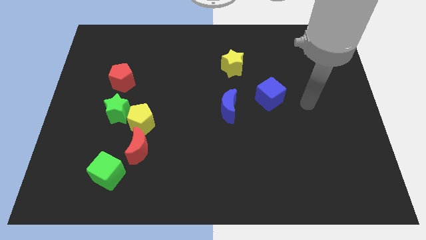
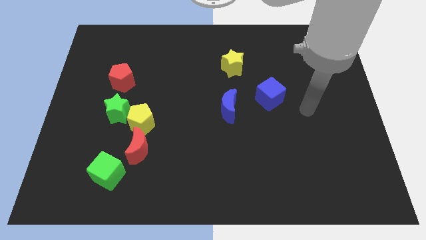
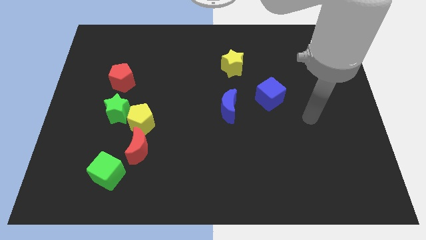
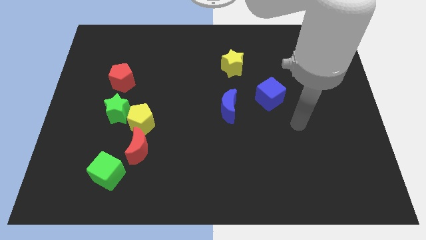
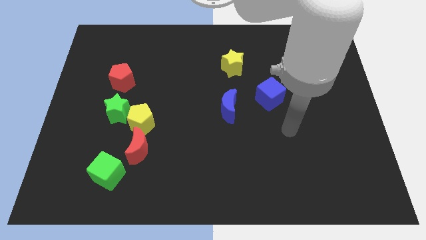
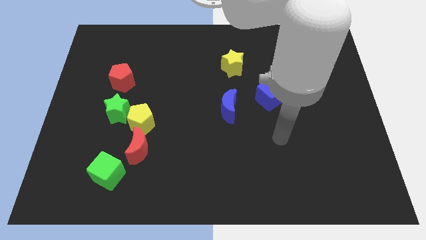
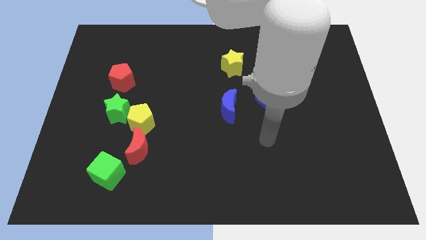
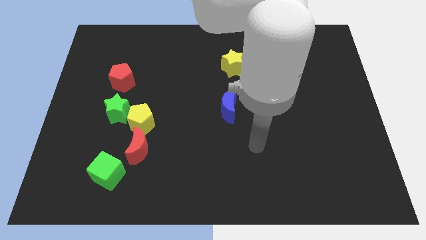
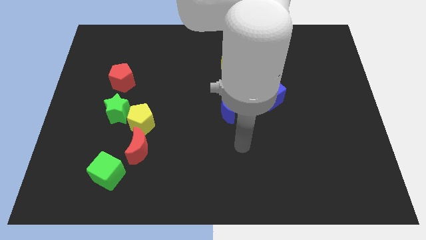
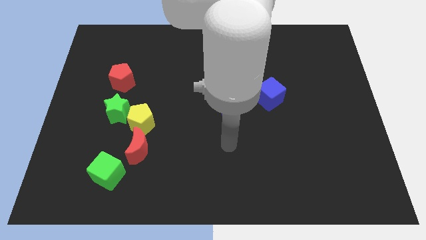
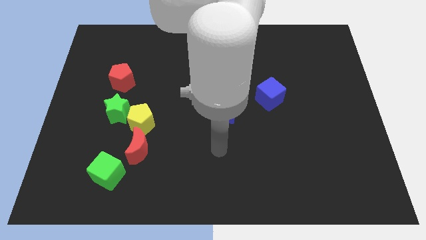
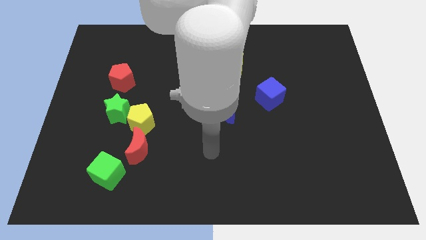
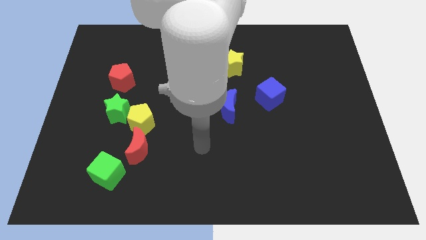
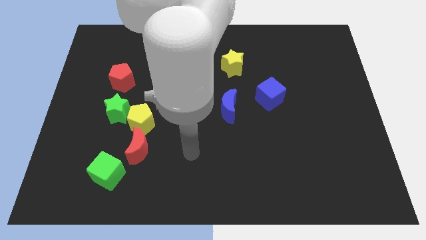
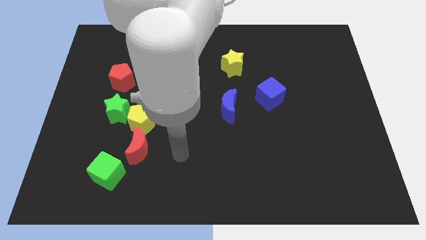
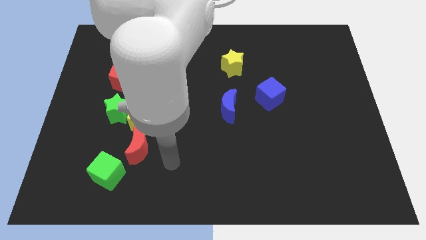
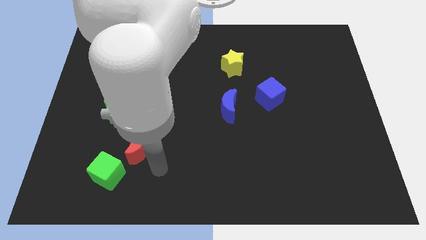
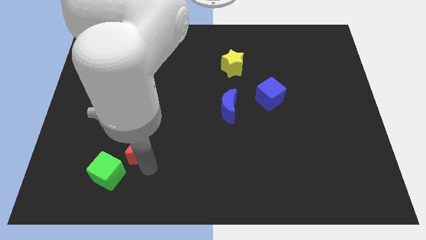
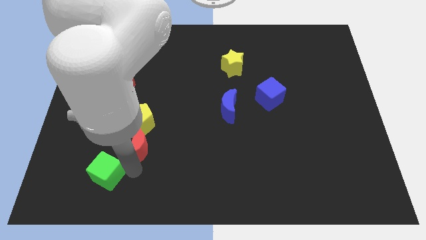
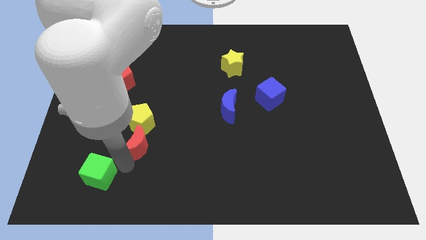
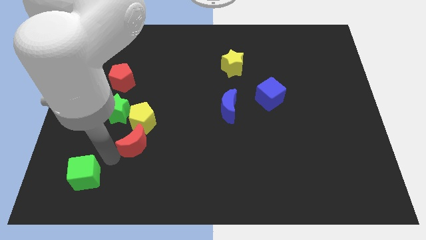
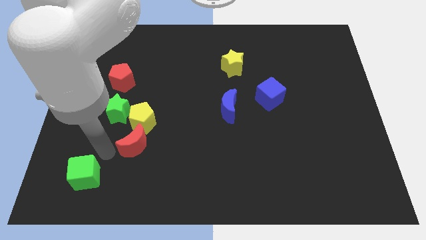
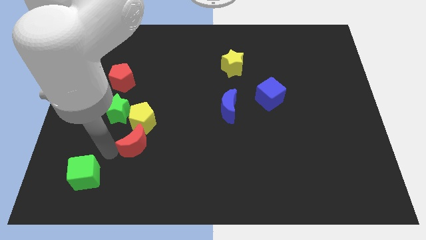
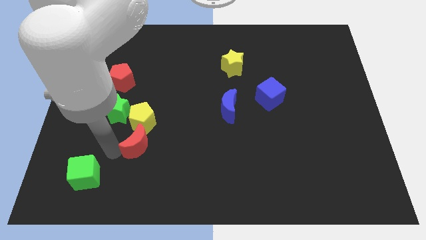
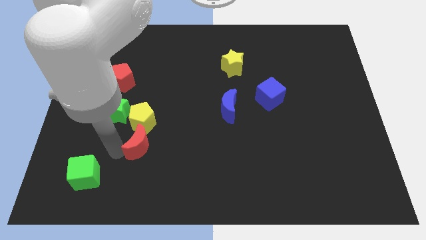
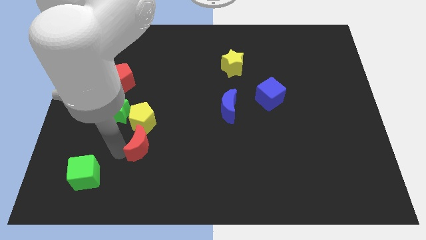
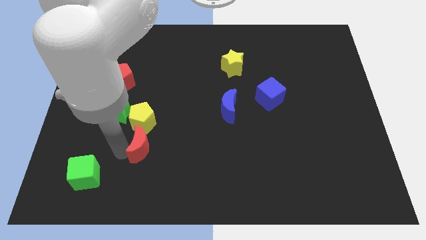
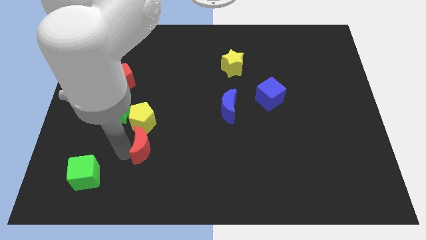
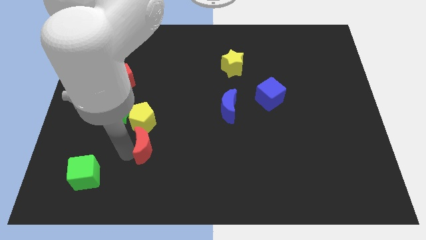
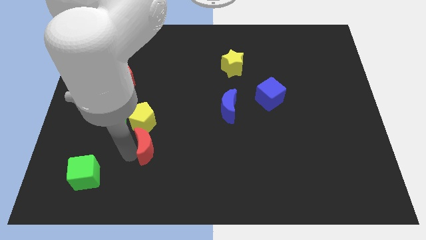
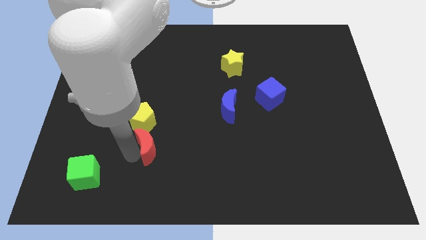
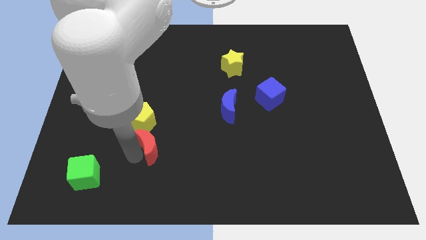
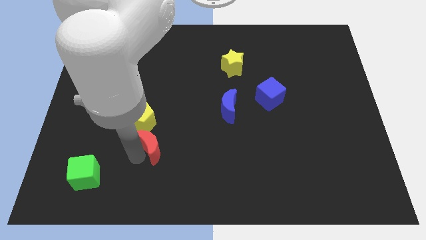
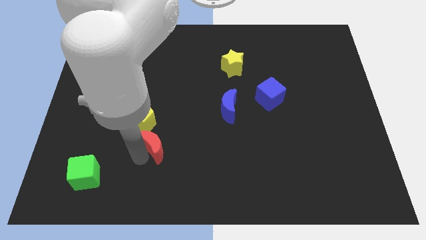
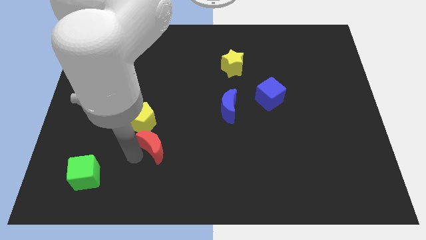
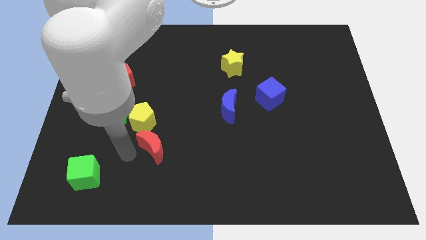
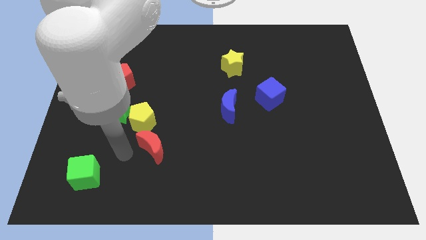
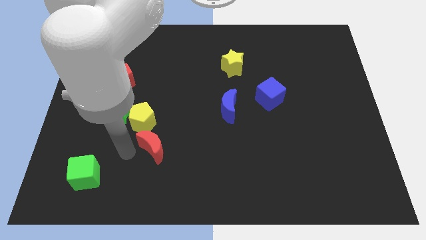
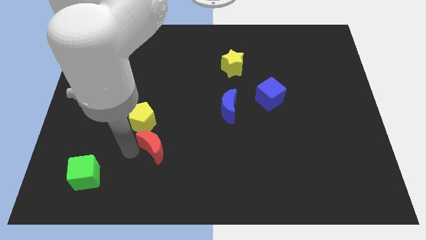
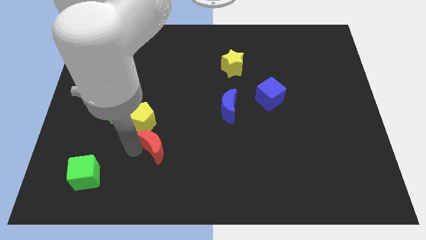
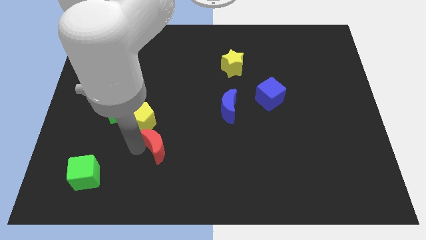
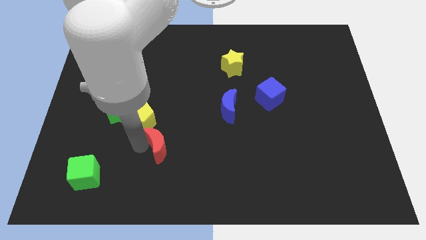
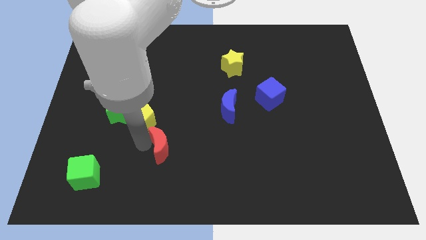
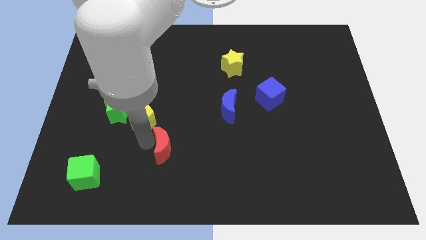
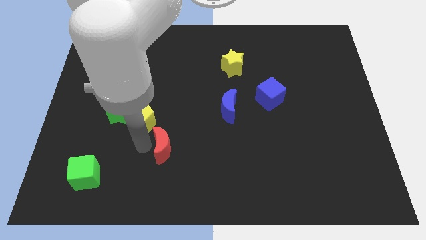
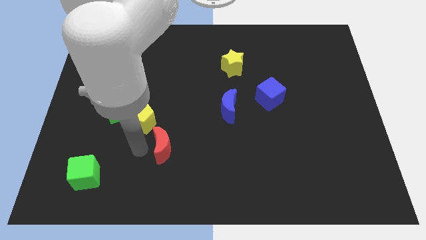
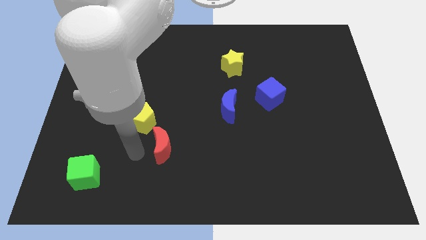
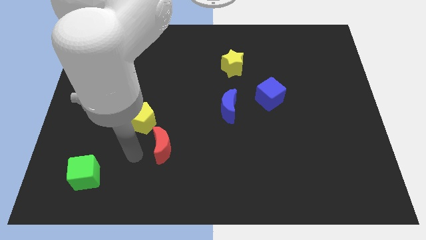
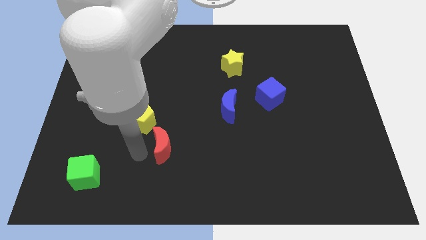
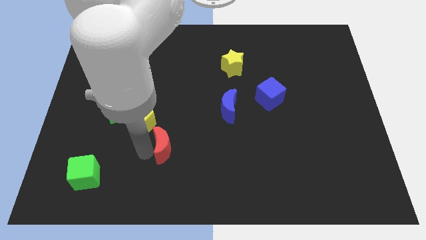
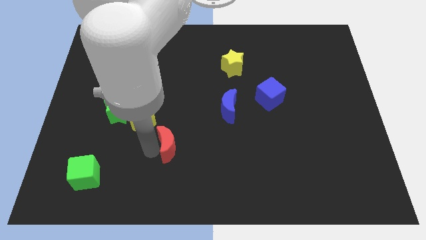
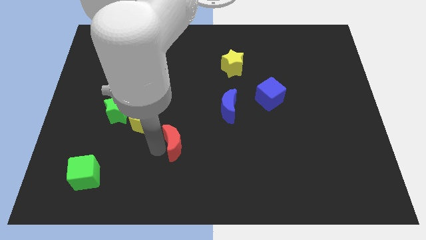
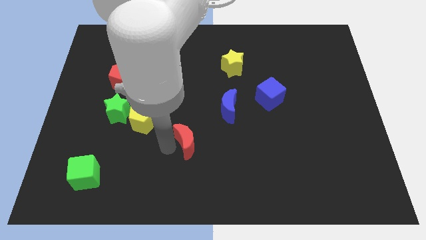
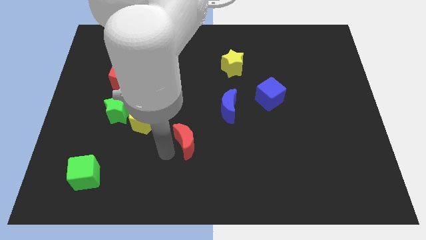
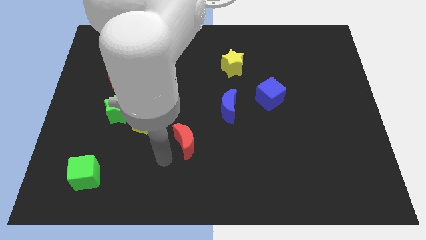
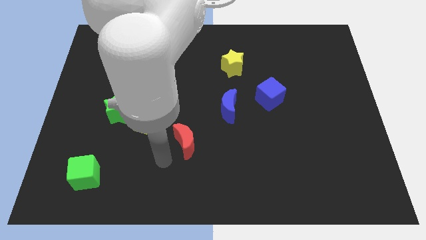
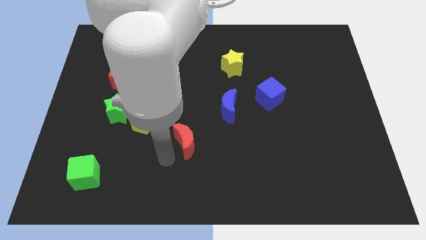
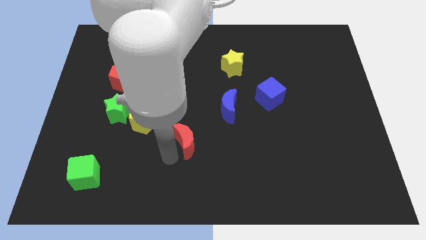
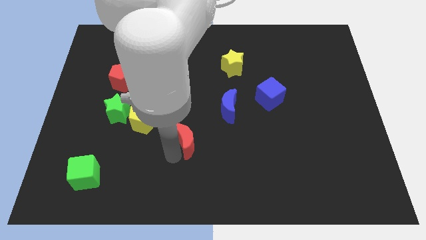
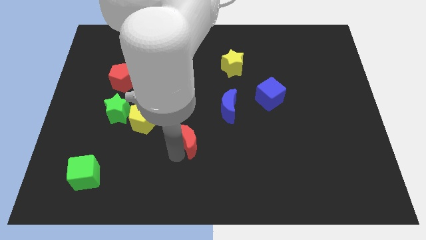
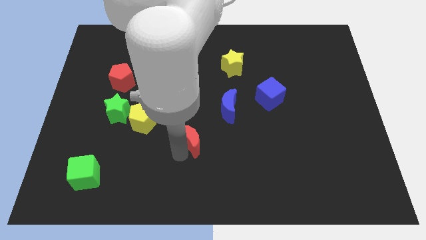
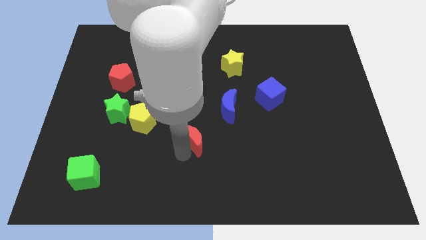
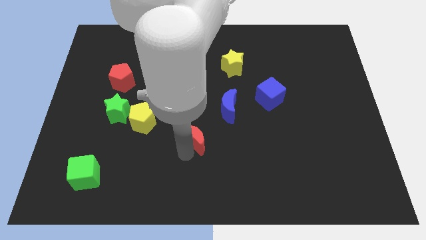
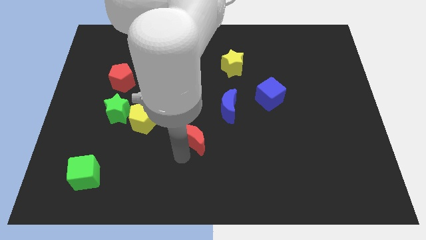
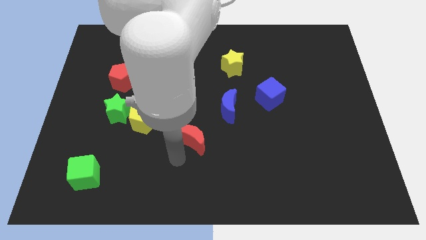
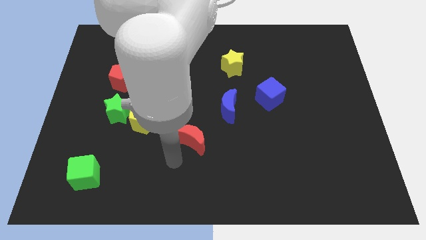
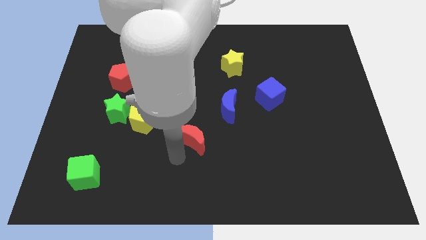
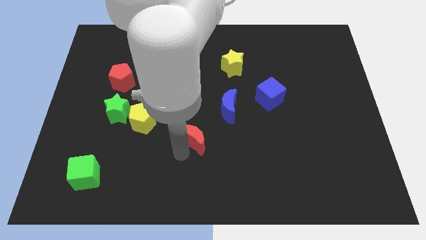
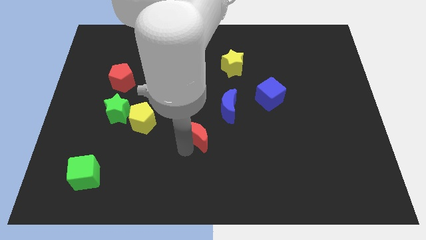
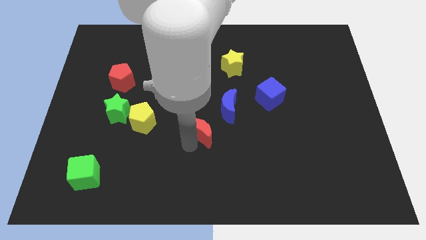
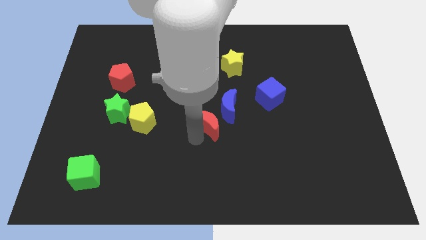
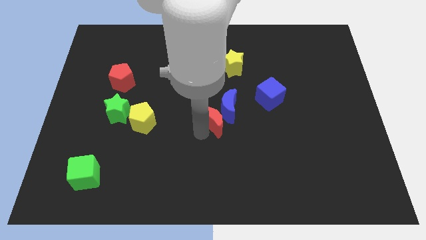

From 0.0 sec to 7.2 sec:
slide the red moon towards the blue moon
